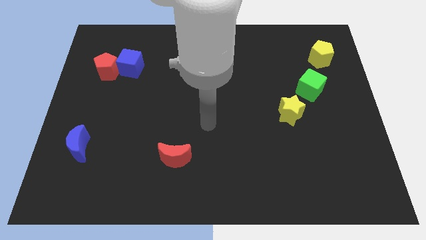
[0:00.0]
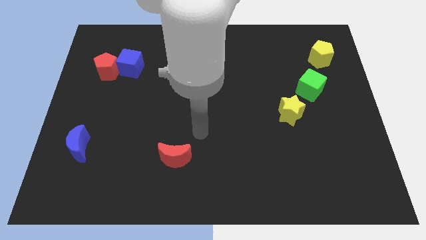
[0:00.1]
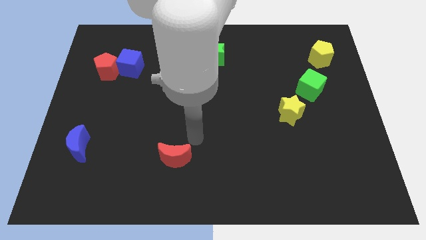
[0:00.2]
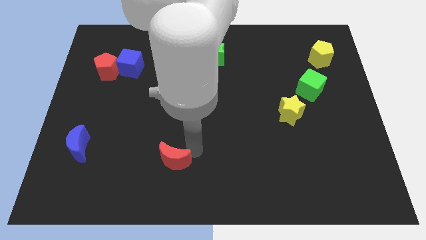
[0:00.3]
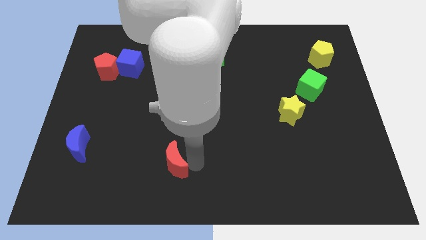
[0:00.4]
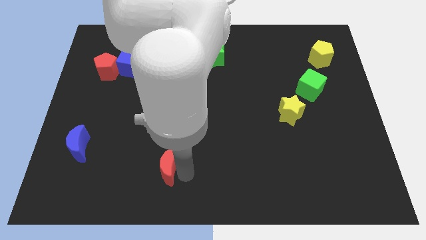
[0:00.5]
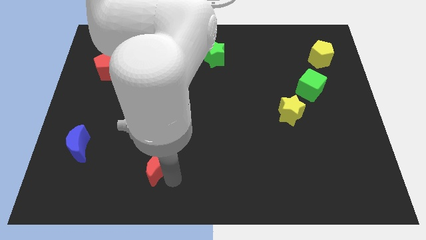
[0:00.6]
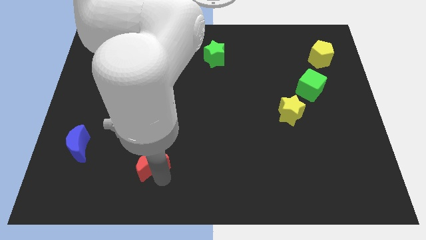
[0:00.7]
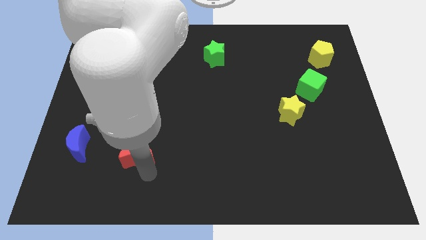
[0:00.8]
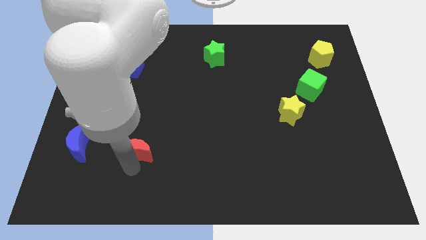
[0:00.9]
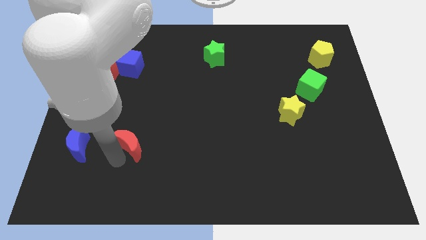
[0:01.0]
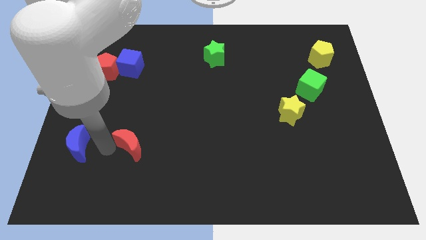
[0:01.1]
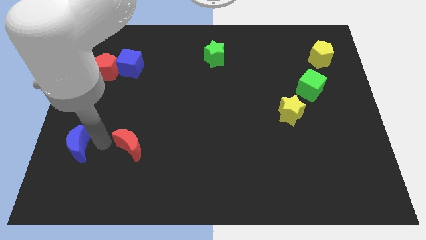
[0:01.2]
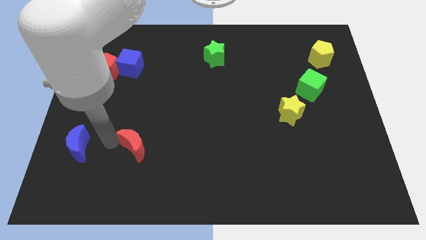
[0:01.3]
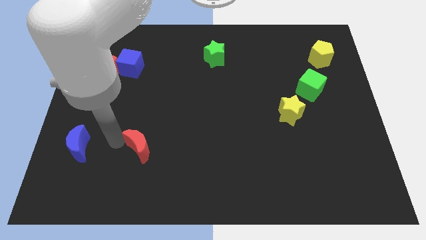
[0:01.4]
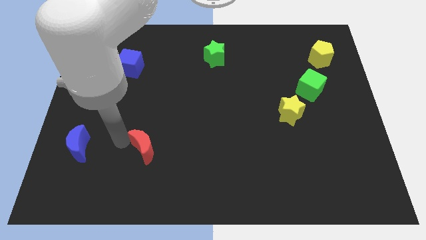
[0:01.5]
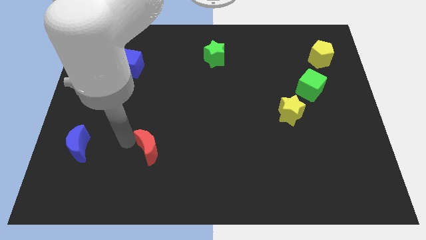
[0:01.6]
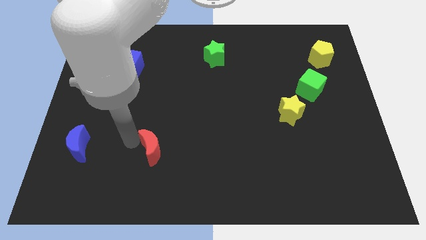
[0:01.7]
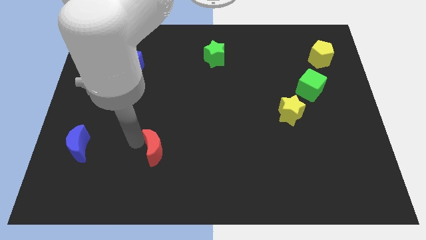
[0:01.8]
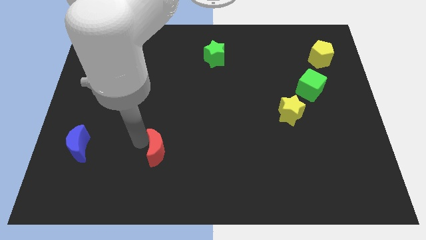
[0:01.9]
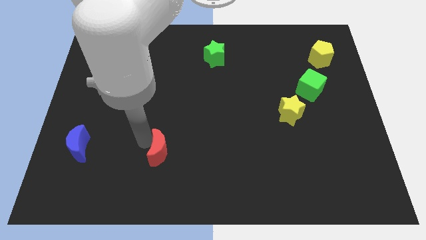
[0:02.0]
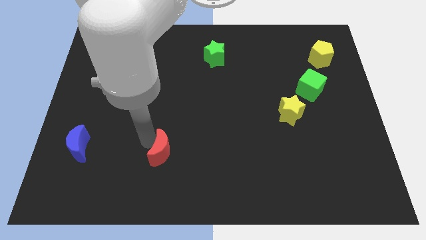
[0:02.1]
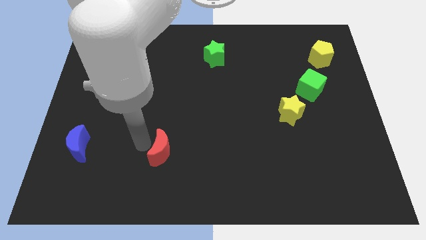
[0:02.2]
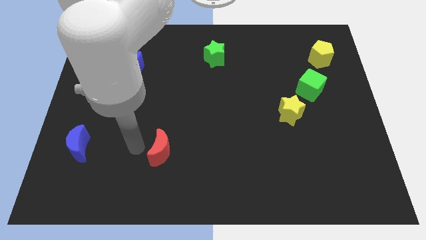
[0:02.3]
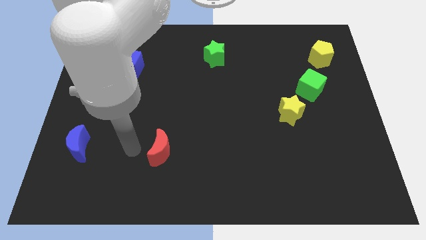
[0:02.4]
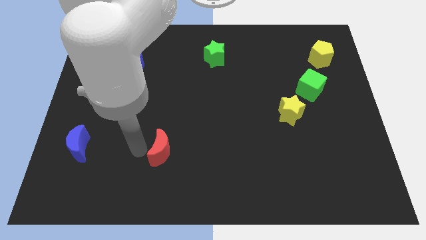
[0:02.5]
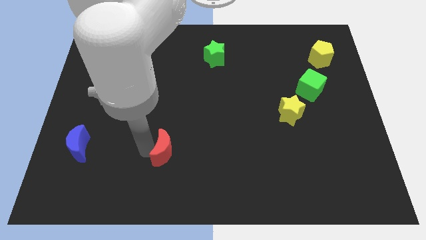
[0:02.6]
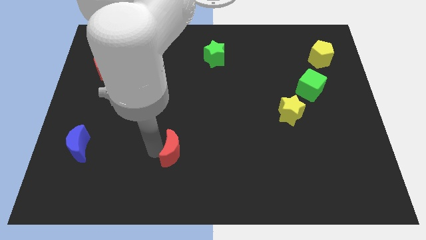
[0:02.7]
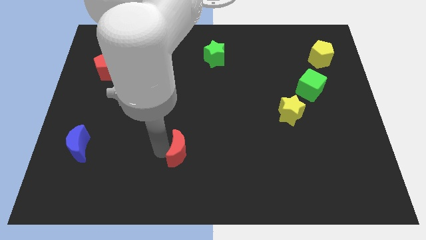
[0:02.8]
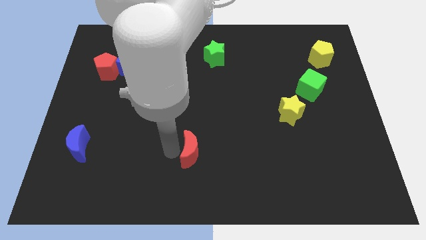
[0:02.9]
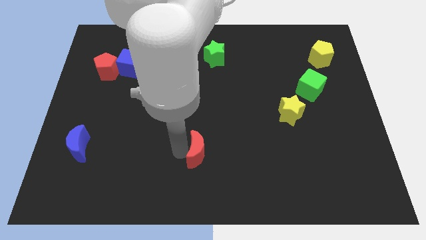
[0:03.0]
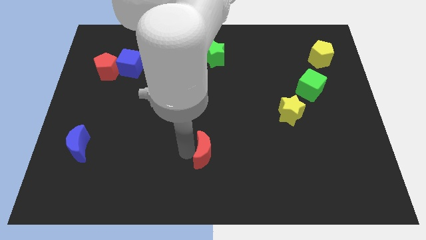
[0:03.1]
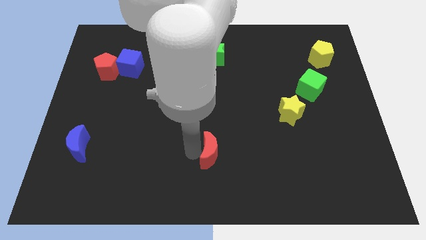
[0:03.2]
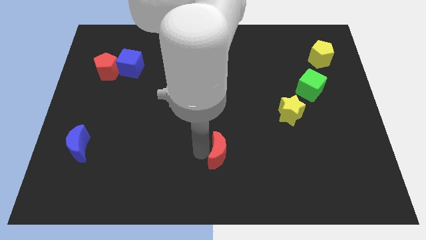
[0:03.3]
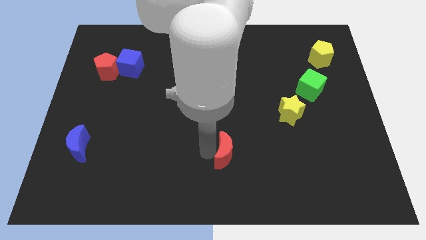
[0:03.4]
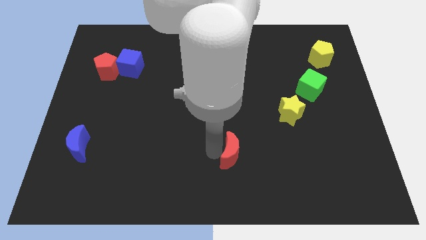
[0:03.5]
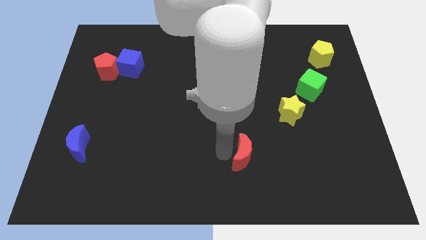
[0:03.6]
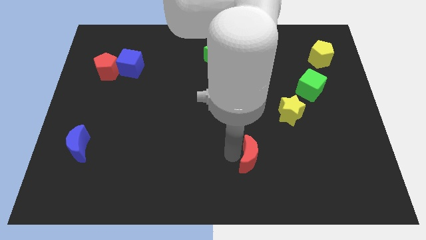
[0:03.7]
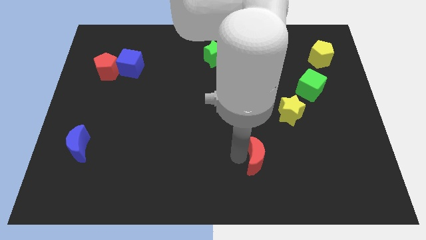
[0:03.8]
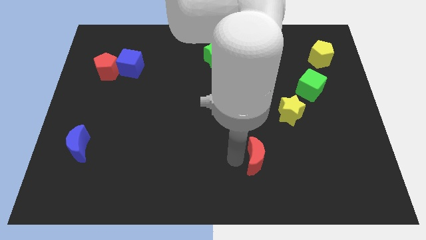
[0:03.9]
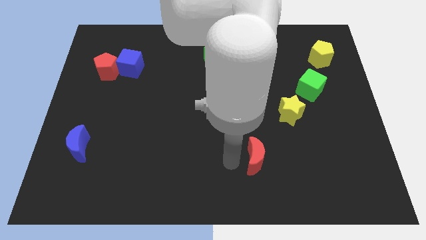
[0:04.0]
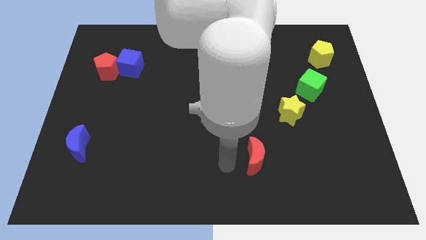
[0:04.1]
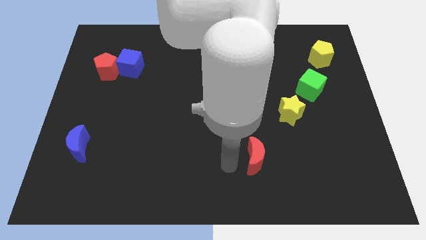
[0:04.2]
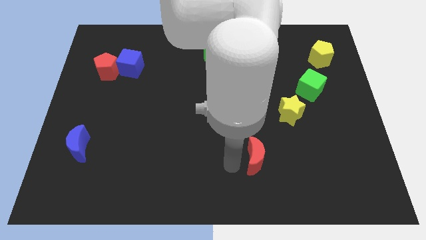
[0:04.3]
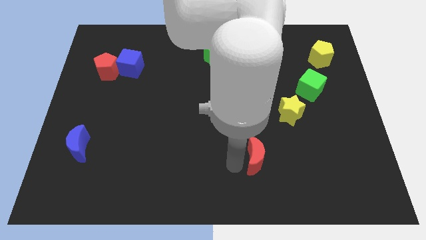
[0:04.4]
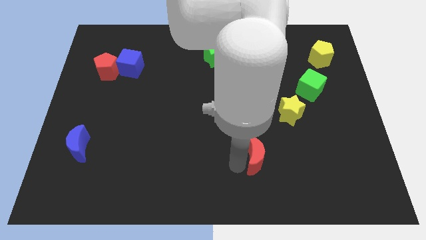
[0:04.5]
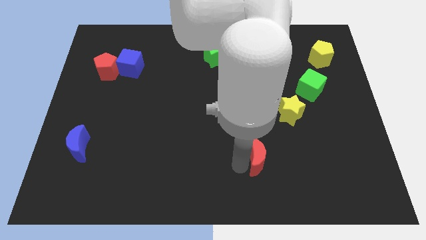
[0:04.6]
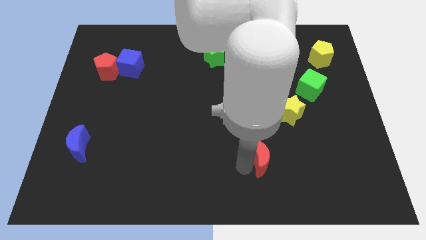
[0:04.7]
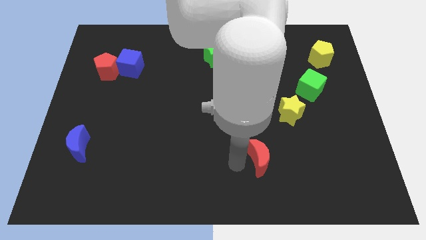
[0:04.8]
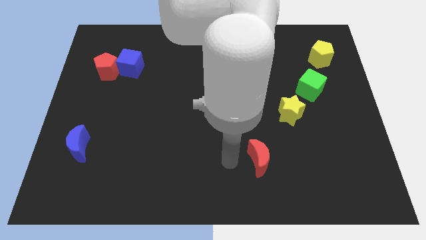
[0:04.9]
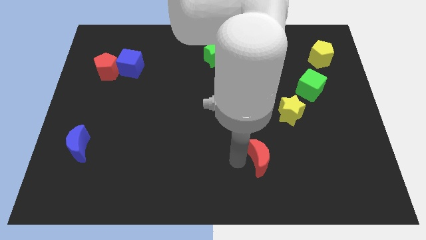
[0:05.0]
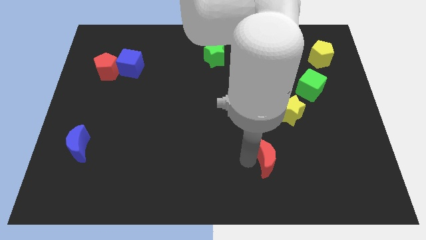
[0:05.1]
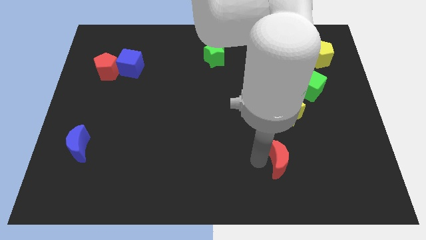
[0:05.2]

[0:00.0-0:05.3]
move the red moon to the right

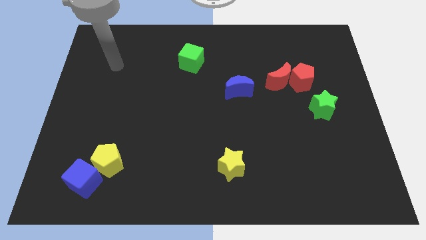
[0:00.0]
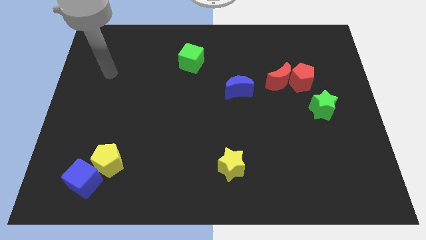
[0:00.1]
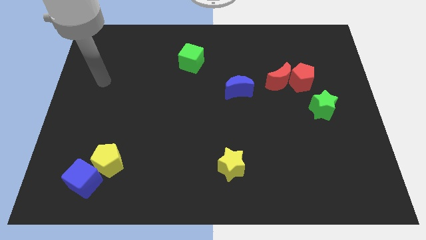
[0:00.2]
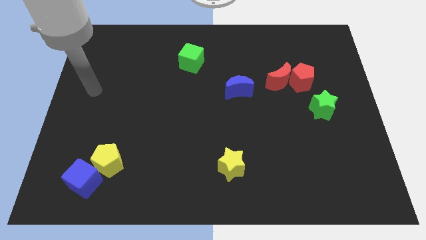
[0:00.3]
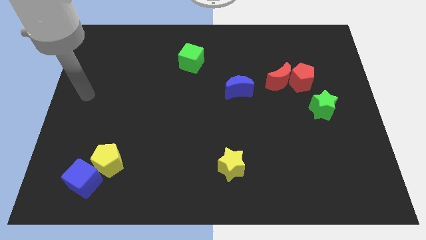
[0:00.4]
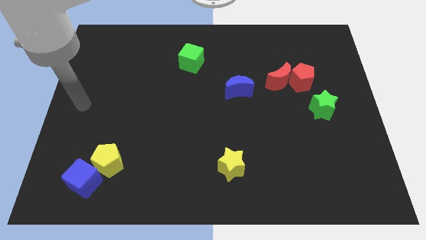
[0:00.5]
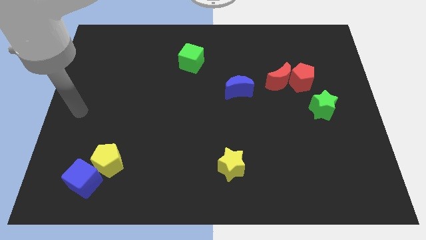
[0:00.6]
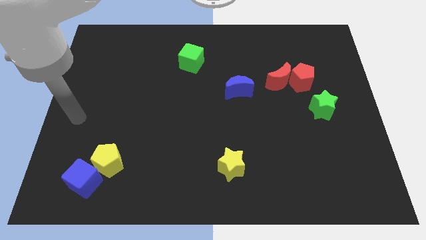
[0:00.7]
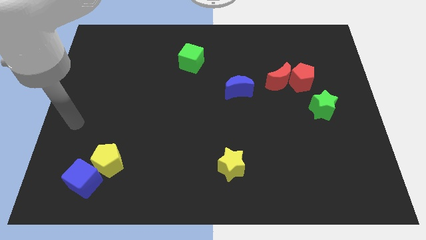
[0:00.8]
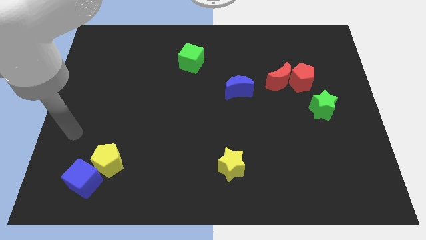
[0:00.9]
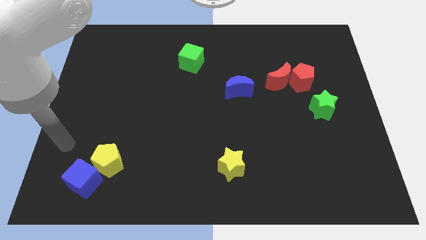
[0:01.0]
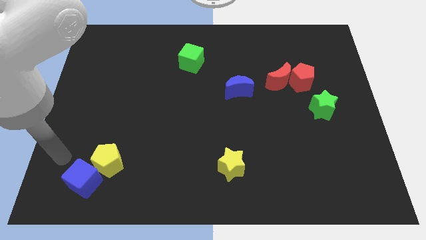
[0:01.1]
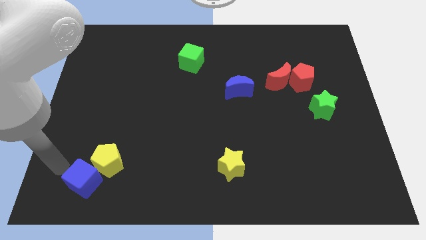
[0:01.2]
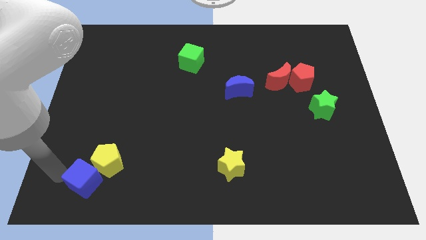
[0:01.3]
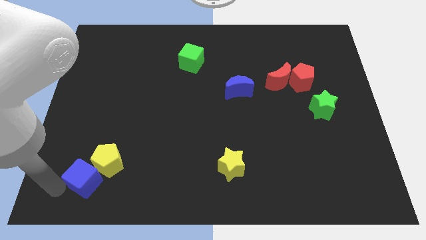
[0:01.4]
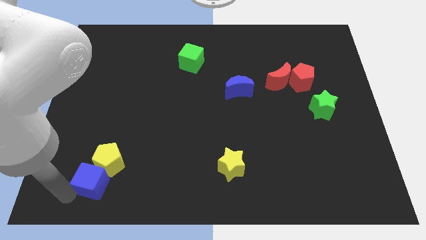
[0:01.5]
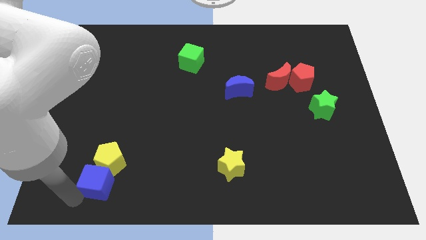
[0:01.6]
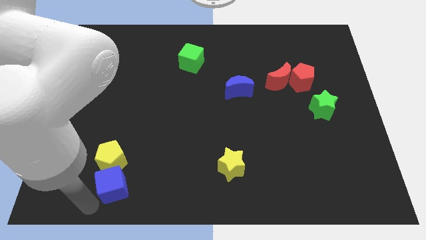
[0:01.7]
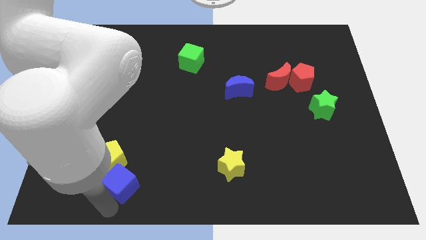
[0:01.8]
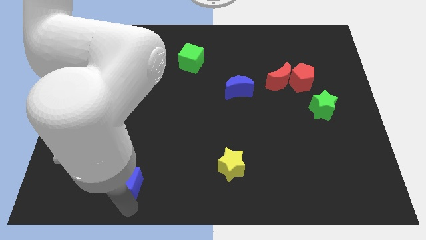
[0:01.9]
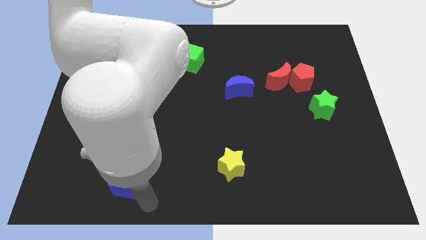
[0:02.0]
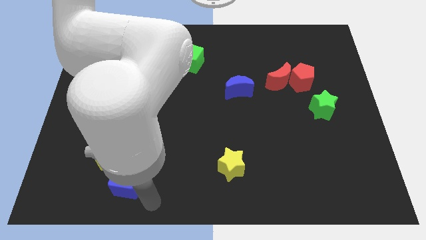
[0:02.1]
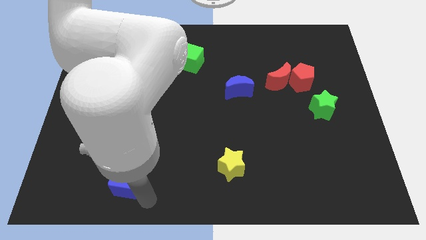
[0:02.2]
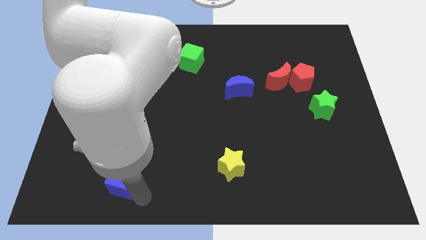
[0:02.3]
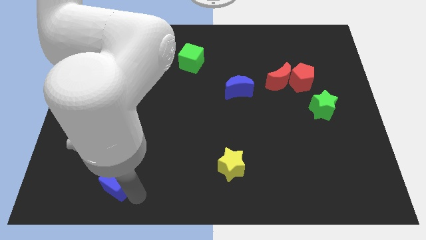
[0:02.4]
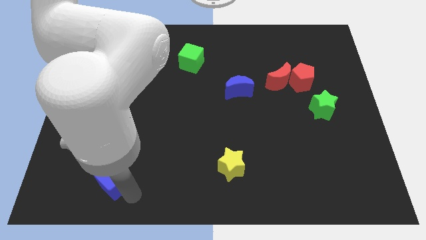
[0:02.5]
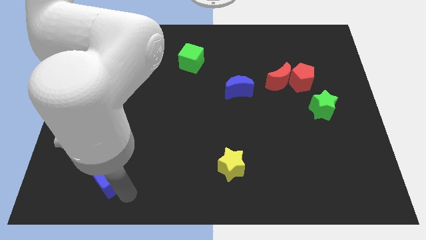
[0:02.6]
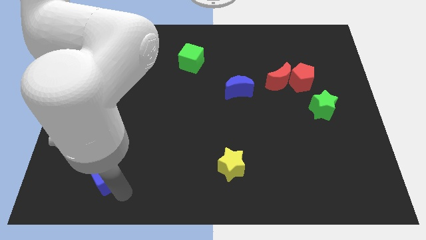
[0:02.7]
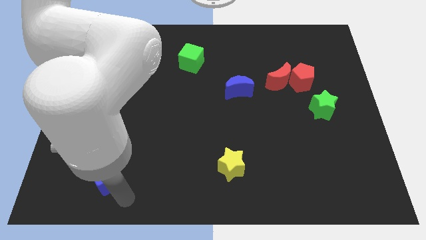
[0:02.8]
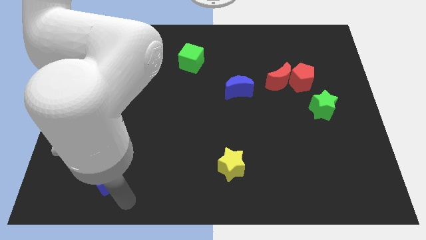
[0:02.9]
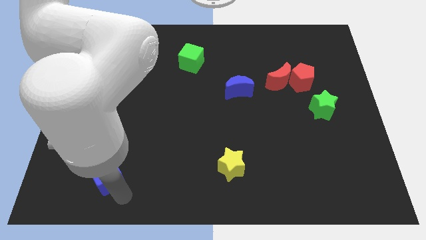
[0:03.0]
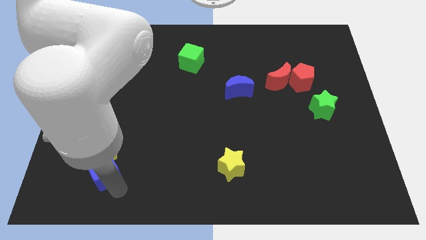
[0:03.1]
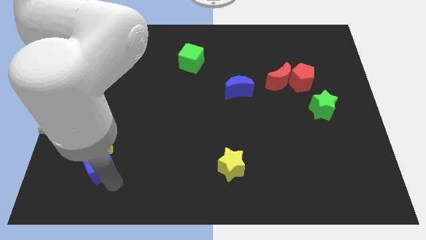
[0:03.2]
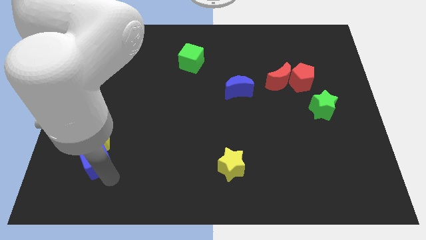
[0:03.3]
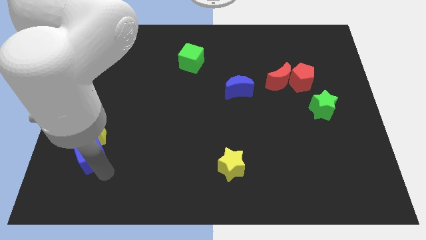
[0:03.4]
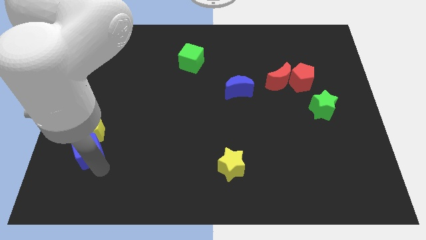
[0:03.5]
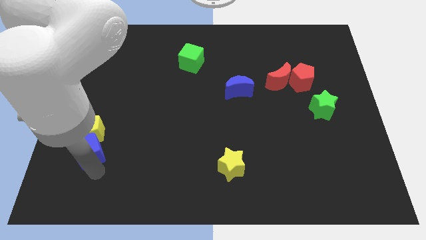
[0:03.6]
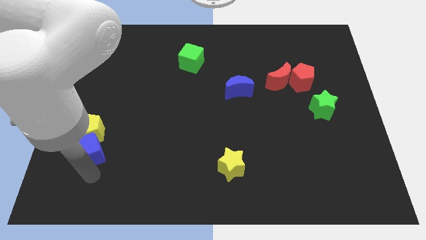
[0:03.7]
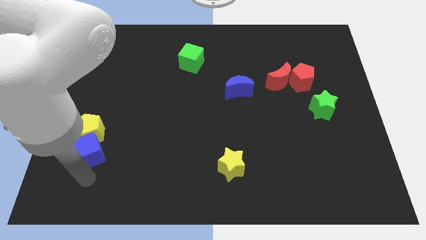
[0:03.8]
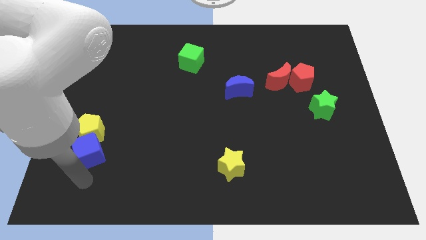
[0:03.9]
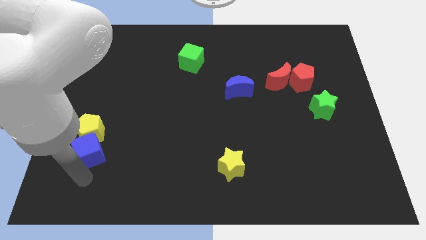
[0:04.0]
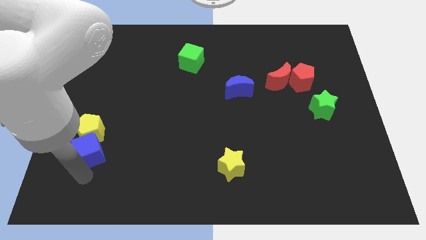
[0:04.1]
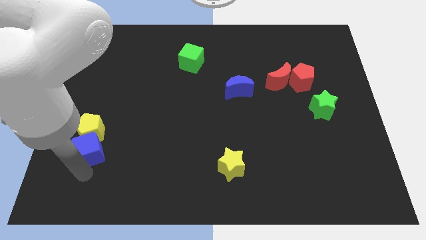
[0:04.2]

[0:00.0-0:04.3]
move the blue cube upwards somewhat
